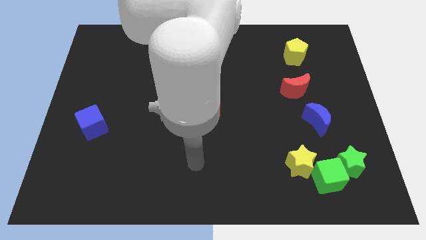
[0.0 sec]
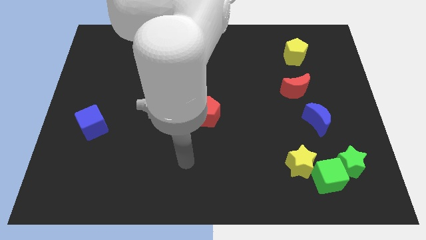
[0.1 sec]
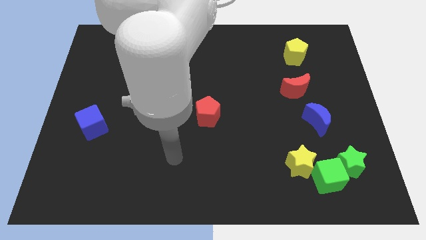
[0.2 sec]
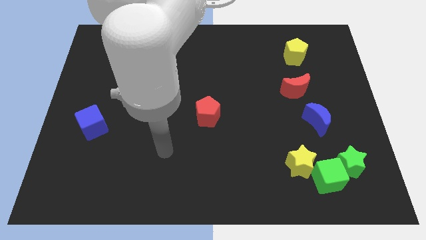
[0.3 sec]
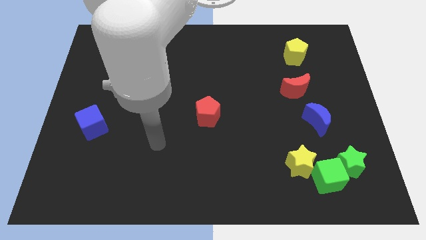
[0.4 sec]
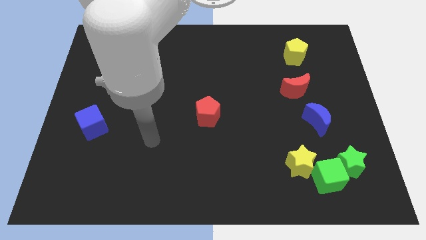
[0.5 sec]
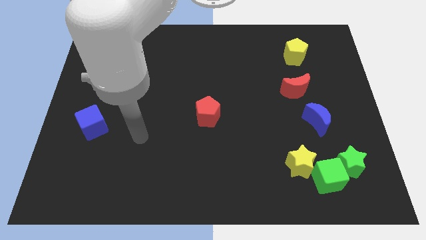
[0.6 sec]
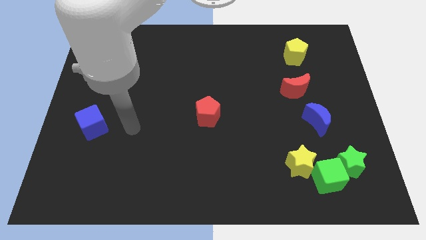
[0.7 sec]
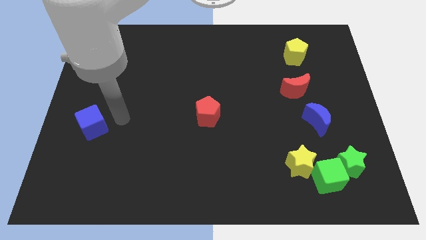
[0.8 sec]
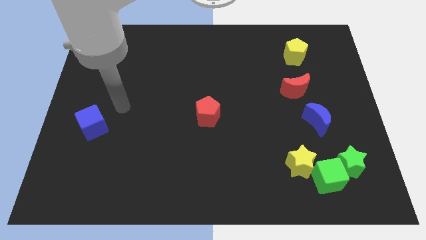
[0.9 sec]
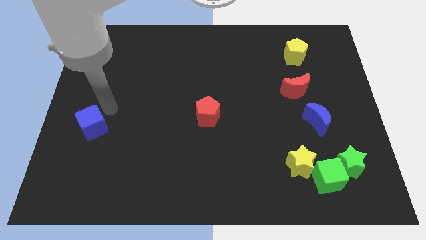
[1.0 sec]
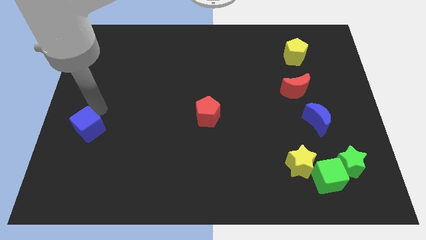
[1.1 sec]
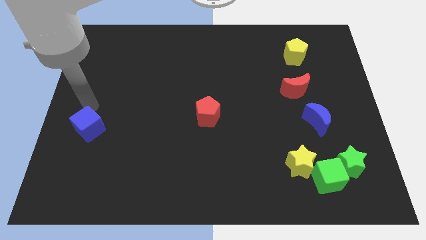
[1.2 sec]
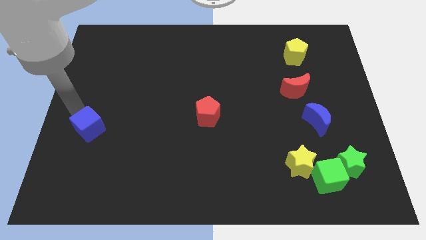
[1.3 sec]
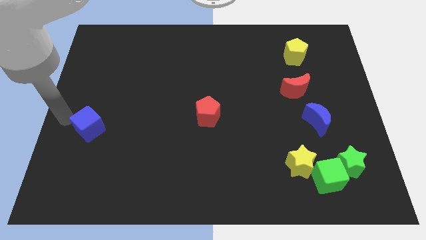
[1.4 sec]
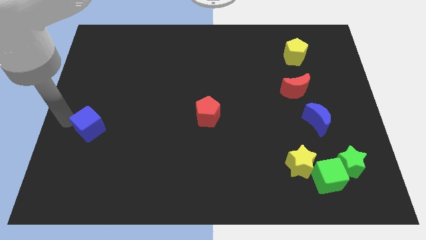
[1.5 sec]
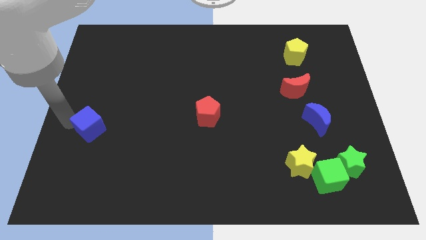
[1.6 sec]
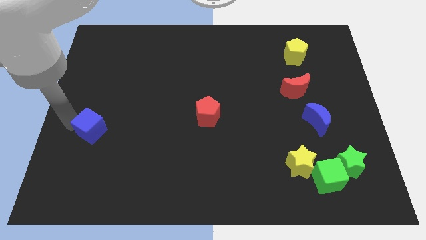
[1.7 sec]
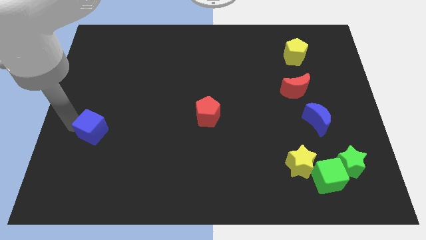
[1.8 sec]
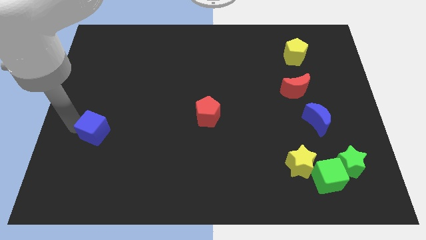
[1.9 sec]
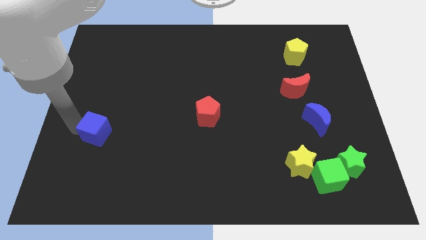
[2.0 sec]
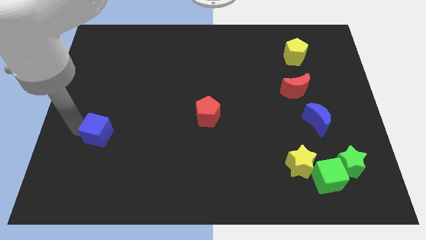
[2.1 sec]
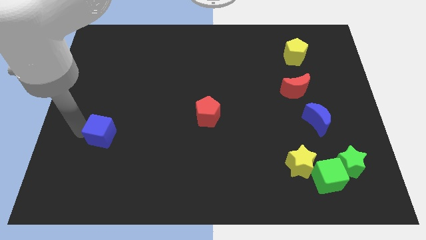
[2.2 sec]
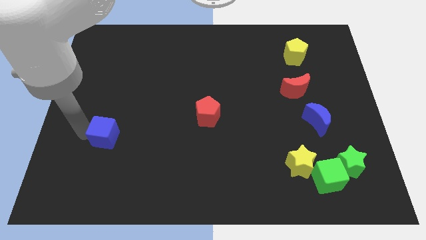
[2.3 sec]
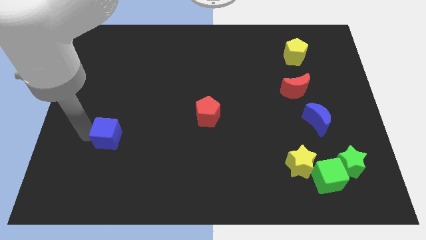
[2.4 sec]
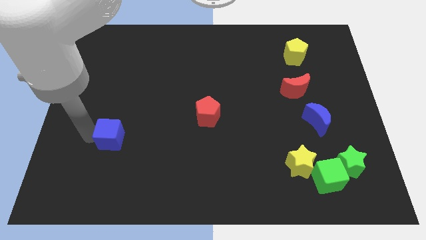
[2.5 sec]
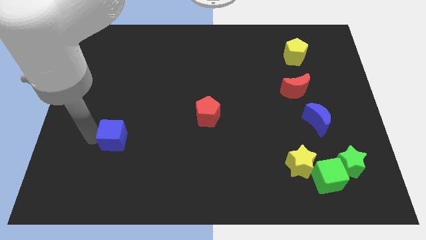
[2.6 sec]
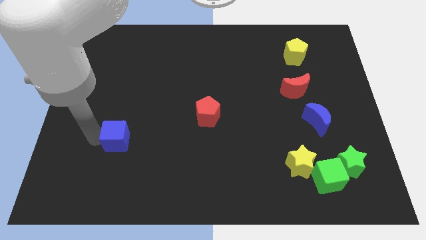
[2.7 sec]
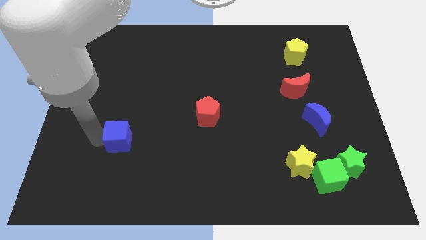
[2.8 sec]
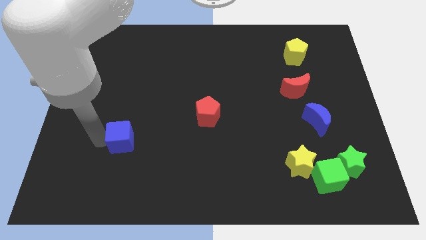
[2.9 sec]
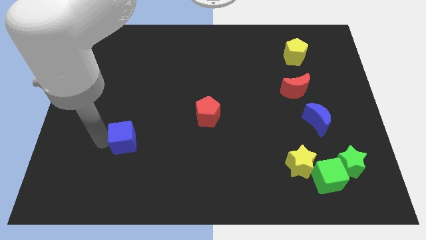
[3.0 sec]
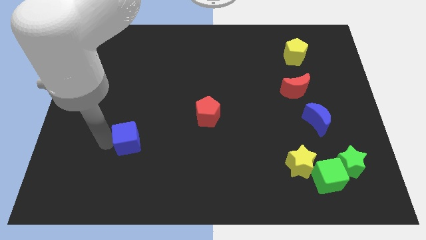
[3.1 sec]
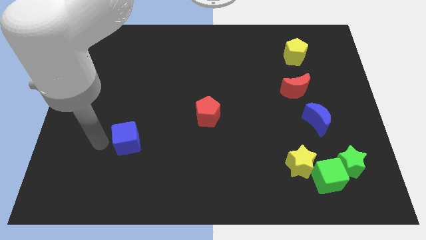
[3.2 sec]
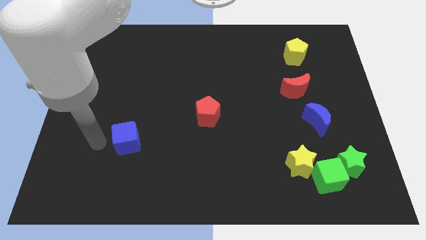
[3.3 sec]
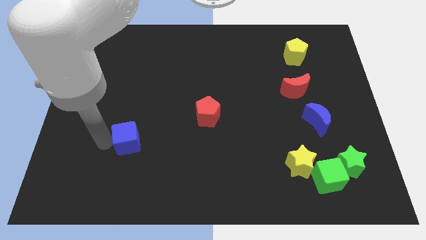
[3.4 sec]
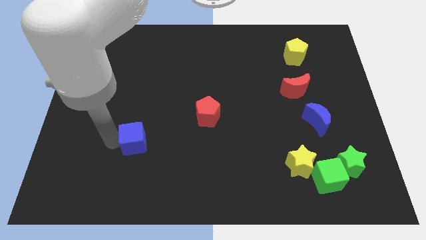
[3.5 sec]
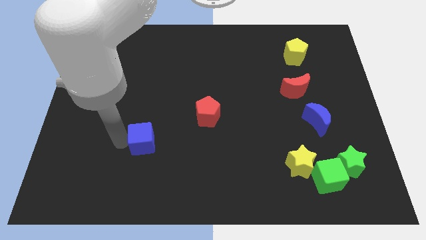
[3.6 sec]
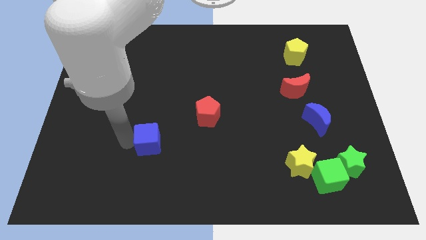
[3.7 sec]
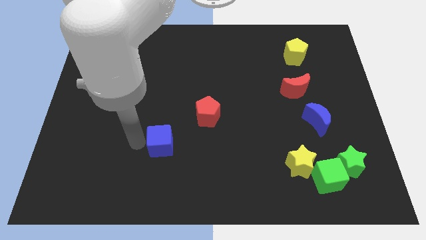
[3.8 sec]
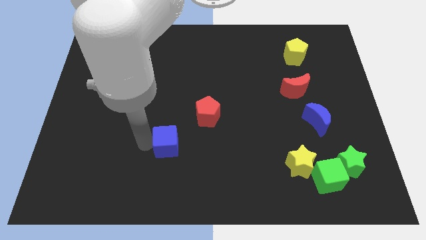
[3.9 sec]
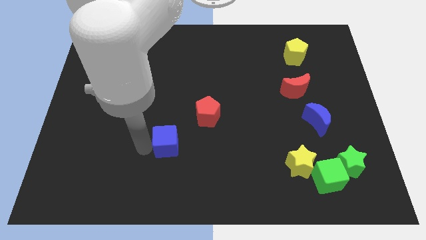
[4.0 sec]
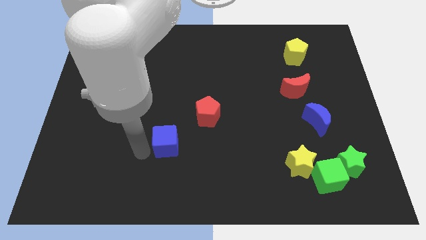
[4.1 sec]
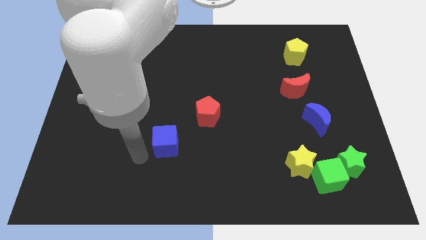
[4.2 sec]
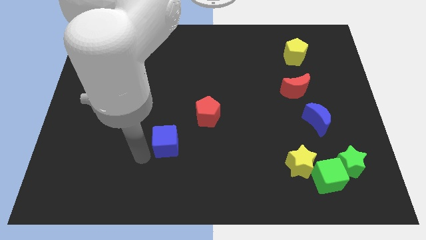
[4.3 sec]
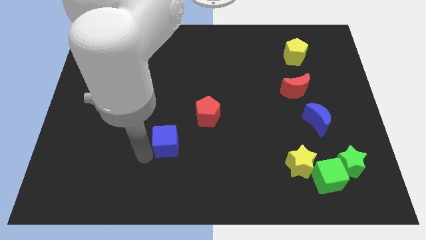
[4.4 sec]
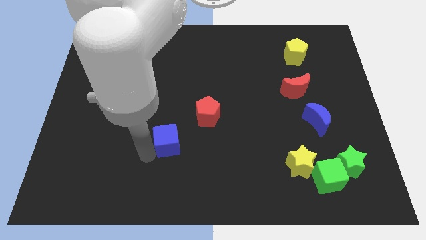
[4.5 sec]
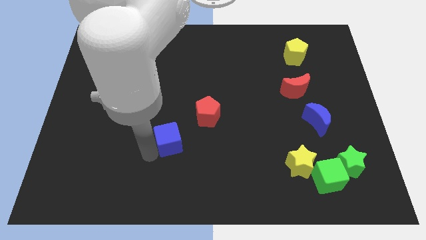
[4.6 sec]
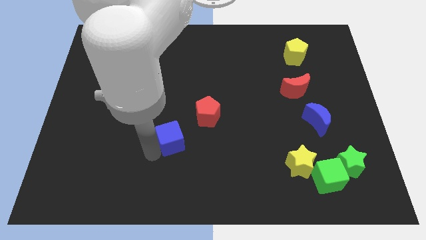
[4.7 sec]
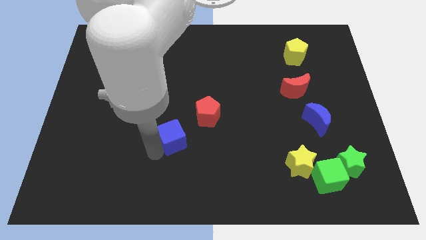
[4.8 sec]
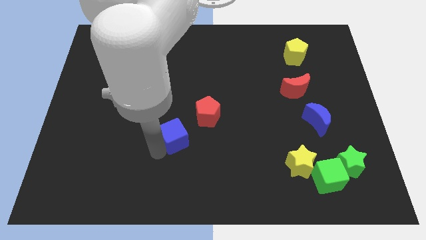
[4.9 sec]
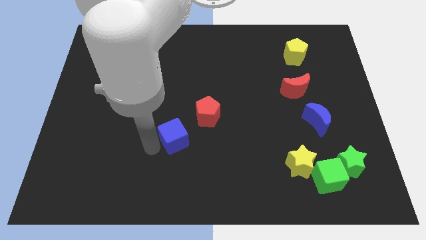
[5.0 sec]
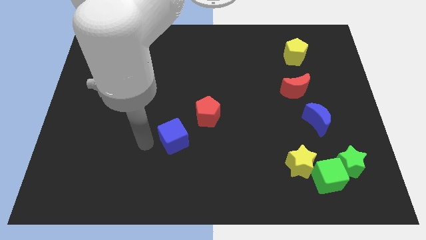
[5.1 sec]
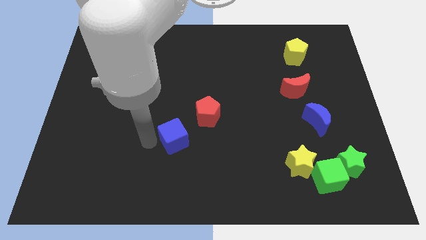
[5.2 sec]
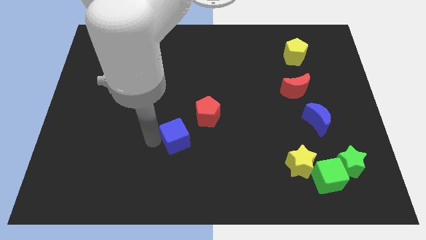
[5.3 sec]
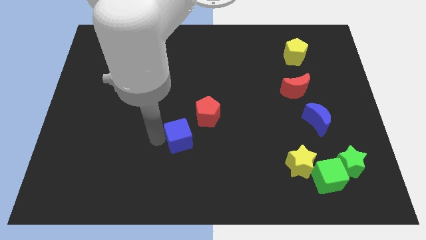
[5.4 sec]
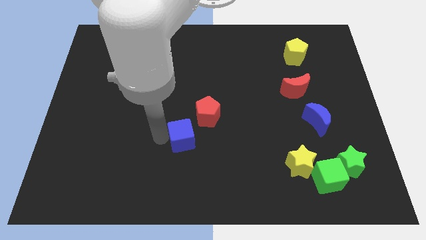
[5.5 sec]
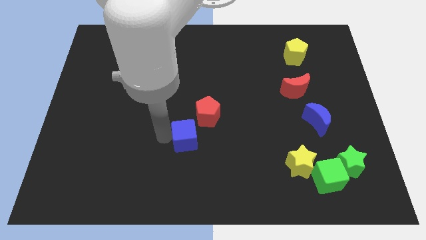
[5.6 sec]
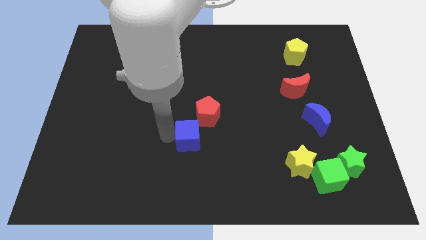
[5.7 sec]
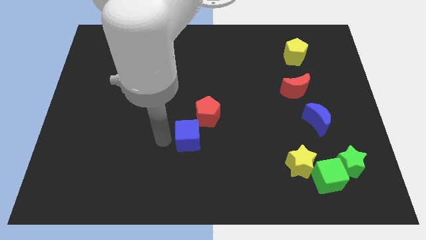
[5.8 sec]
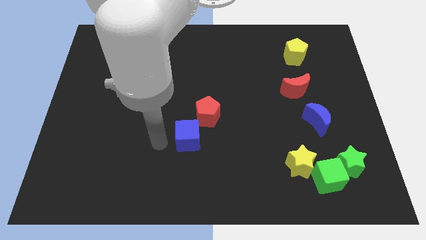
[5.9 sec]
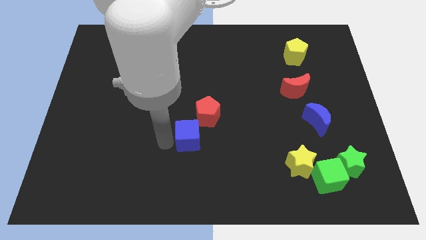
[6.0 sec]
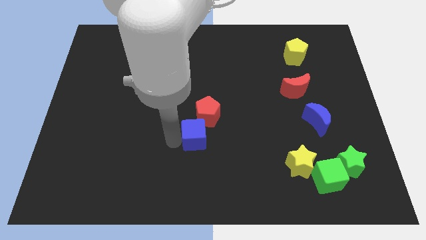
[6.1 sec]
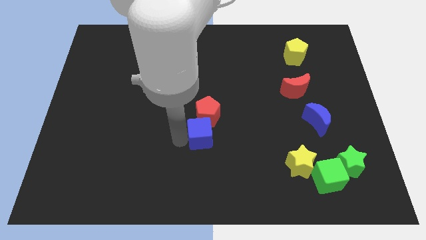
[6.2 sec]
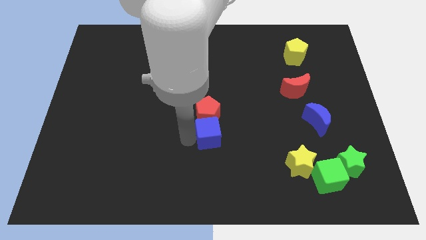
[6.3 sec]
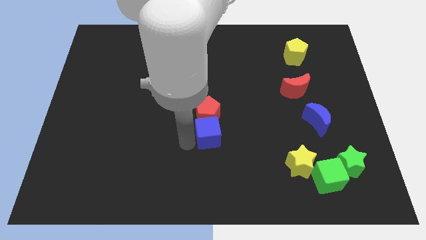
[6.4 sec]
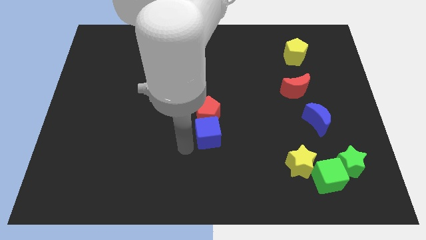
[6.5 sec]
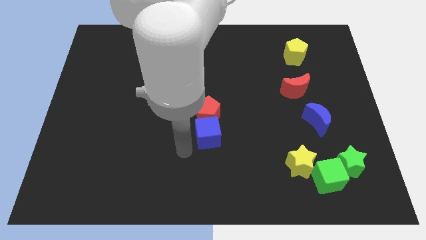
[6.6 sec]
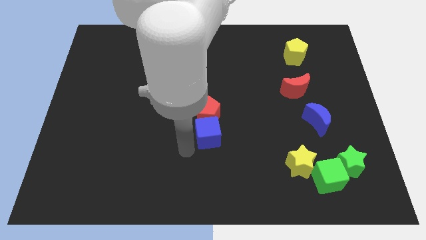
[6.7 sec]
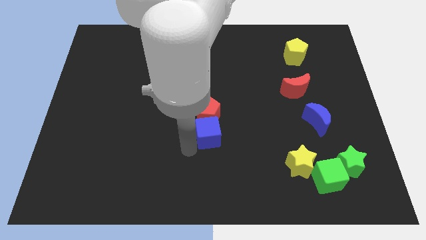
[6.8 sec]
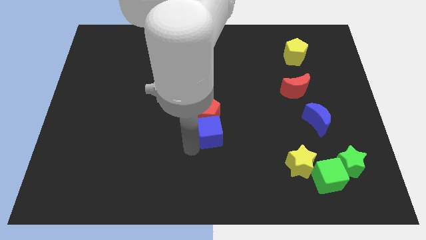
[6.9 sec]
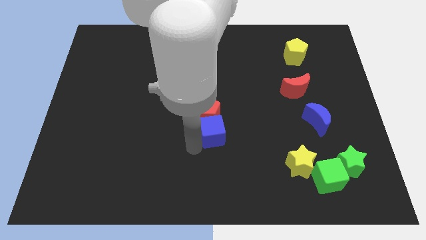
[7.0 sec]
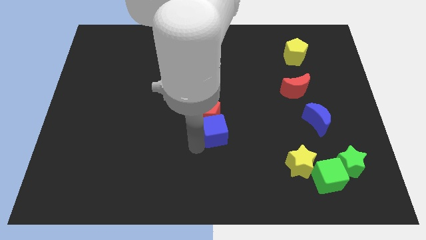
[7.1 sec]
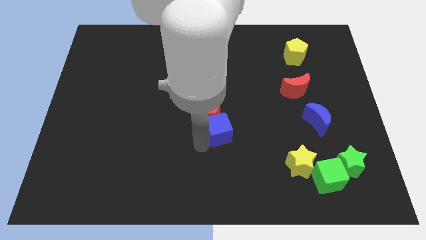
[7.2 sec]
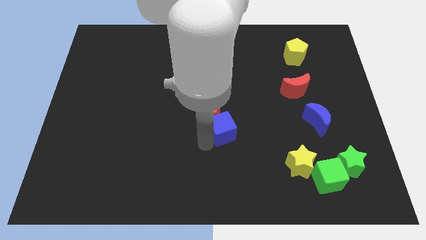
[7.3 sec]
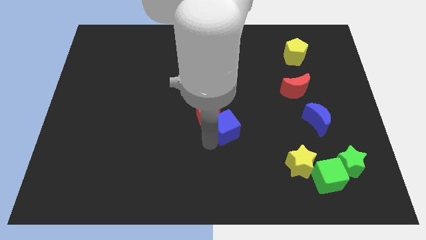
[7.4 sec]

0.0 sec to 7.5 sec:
move the blue cube right of the red pentagon
